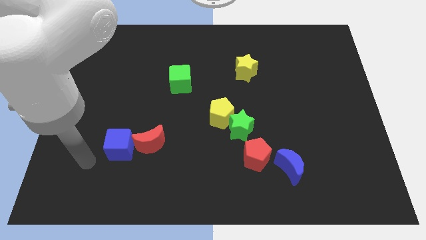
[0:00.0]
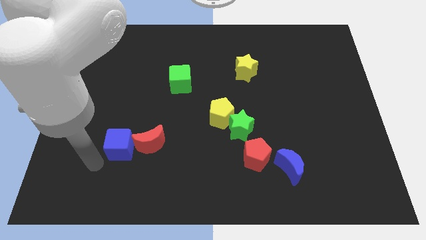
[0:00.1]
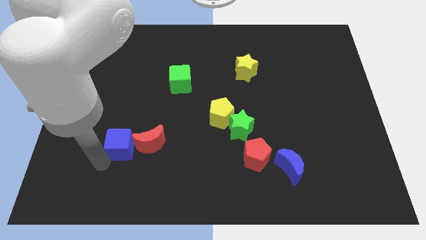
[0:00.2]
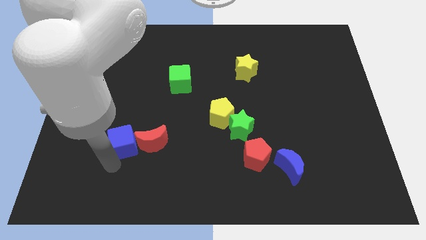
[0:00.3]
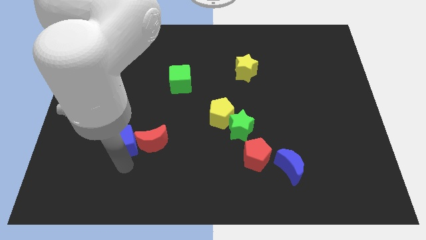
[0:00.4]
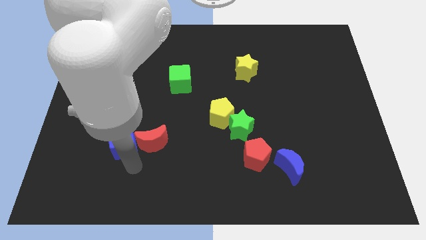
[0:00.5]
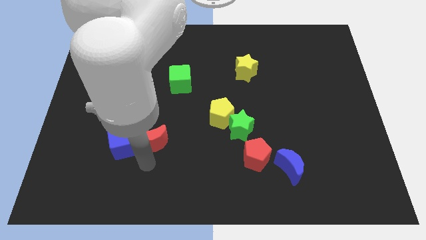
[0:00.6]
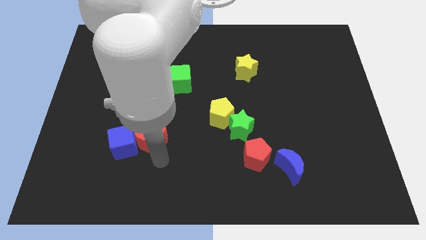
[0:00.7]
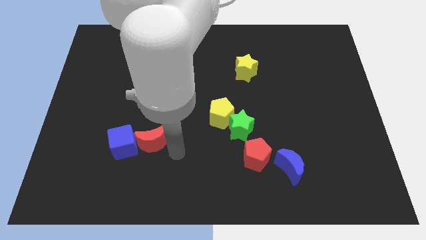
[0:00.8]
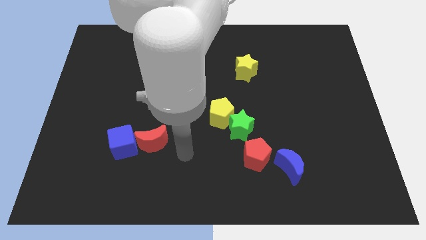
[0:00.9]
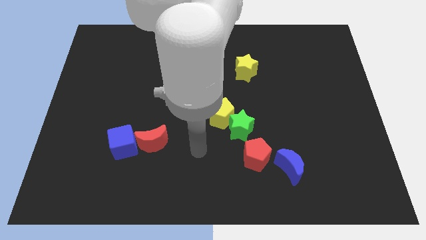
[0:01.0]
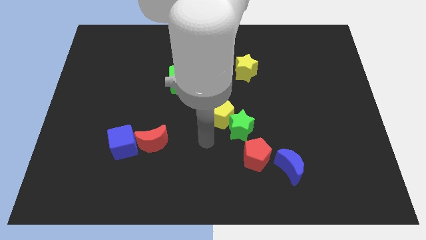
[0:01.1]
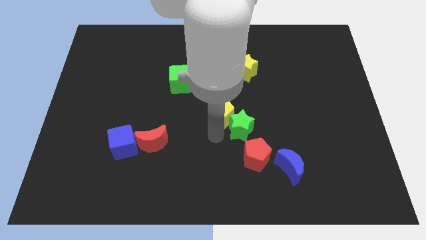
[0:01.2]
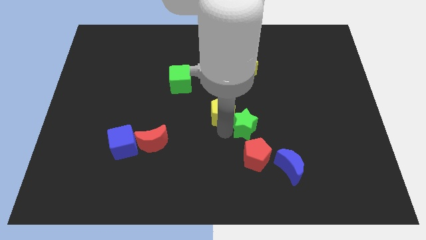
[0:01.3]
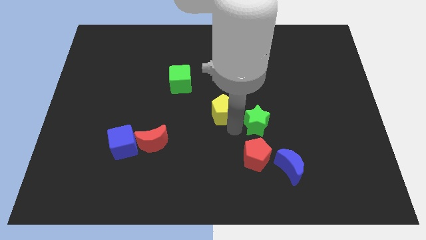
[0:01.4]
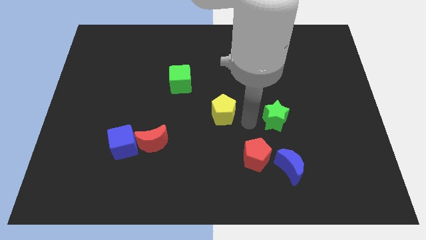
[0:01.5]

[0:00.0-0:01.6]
separate the yellow pentagon from the green star

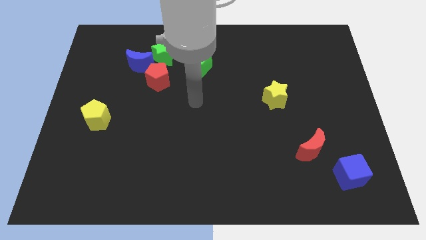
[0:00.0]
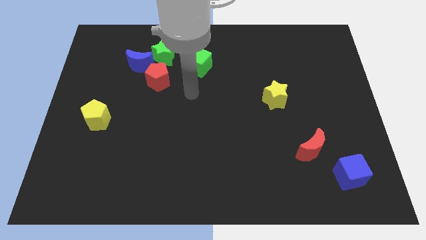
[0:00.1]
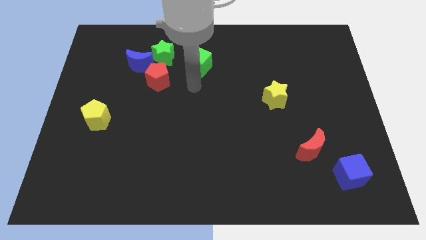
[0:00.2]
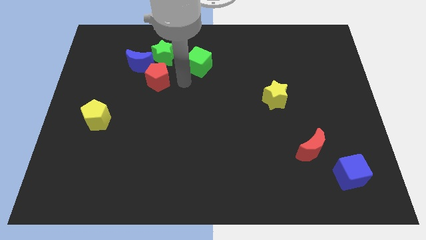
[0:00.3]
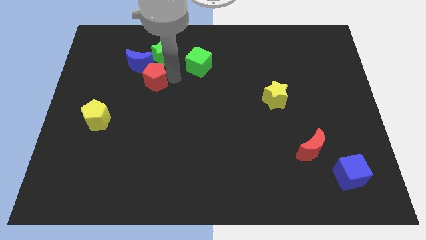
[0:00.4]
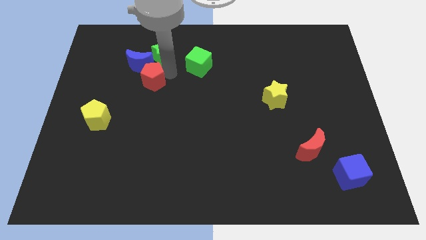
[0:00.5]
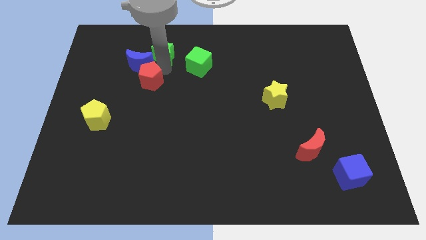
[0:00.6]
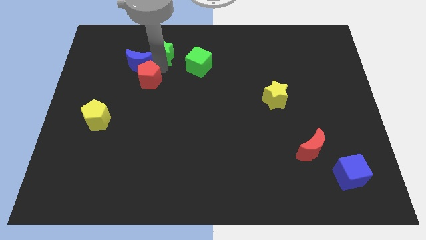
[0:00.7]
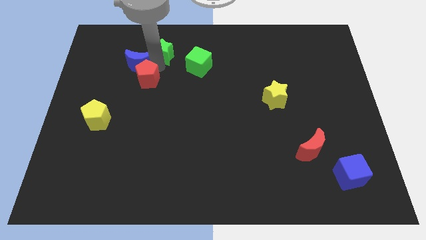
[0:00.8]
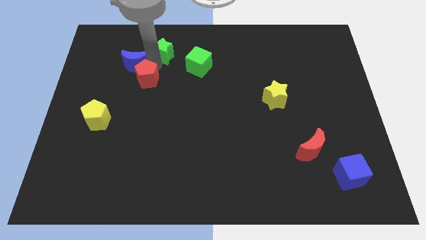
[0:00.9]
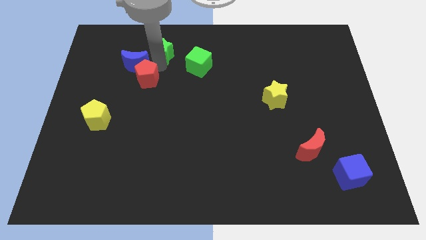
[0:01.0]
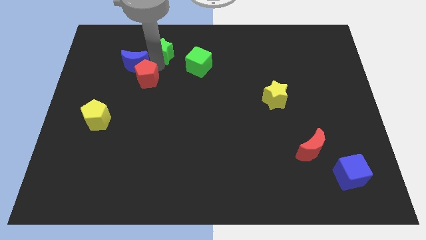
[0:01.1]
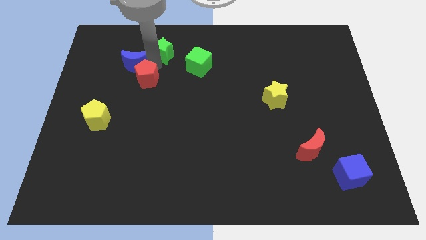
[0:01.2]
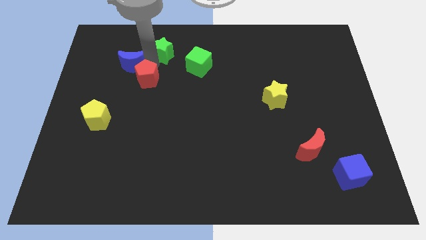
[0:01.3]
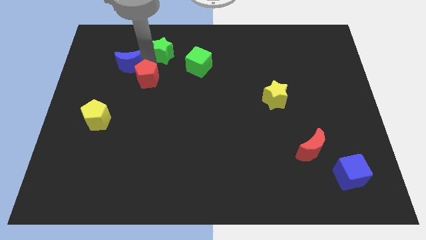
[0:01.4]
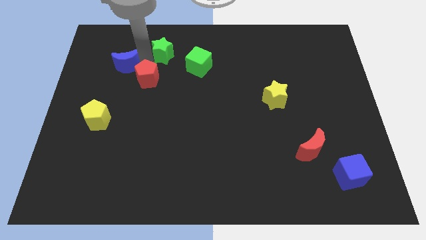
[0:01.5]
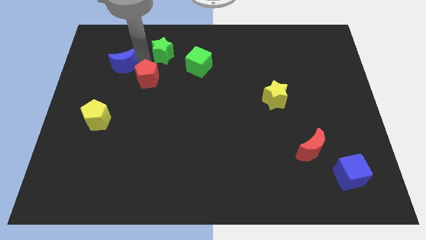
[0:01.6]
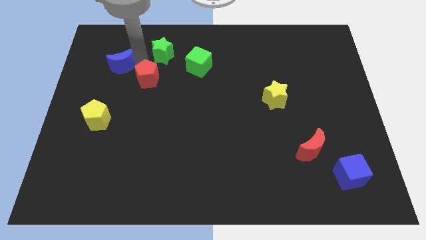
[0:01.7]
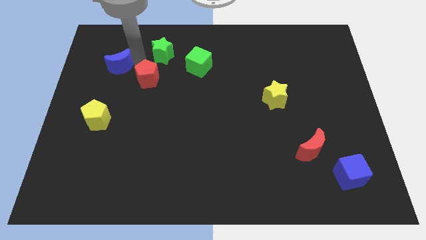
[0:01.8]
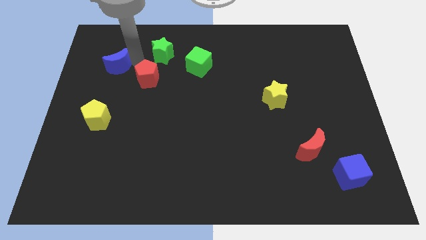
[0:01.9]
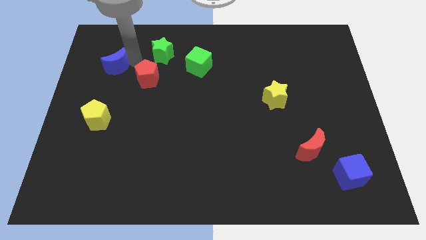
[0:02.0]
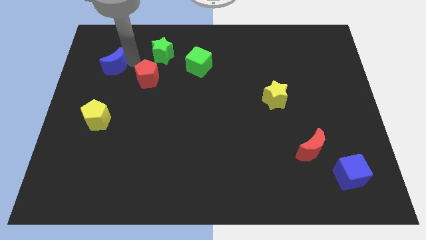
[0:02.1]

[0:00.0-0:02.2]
pull the blue moon apart from the green star and red pentagon

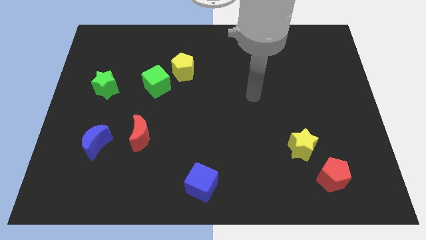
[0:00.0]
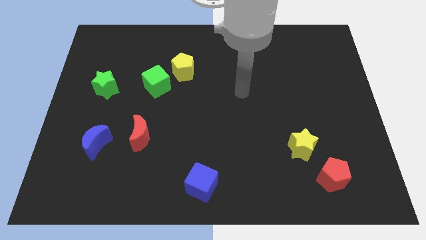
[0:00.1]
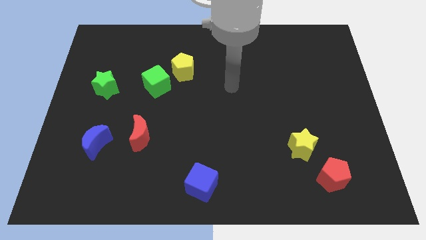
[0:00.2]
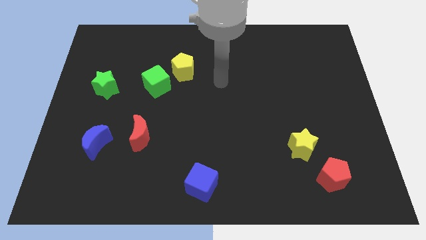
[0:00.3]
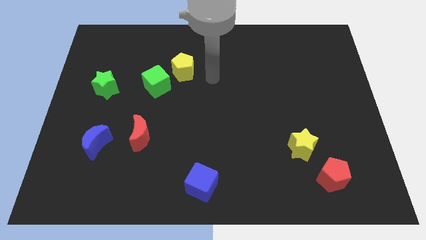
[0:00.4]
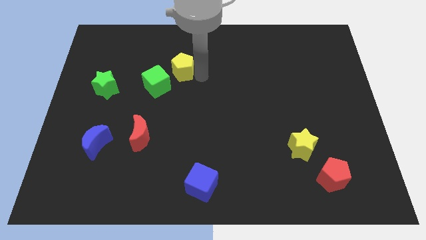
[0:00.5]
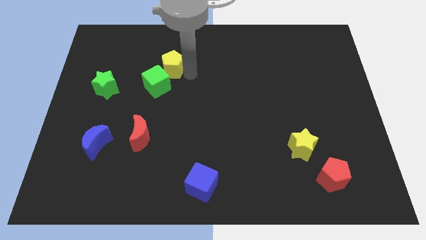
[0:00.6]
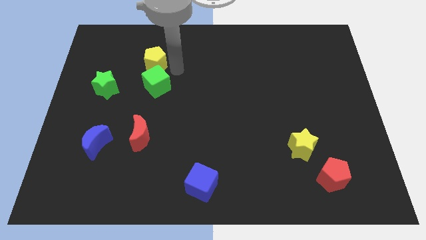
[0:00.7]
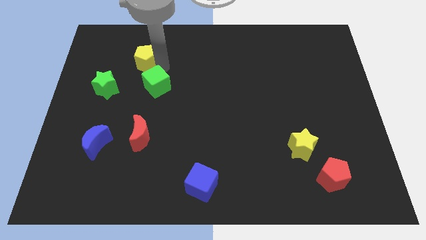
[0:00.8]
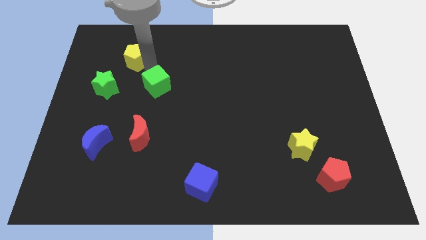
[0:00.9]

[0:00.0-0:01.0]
pull the green cube apart from the yellow pentagon

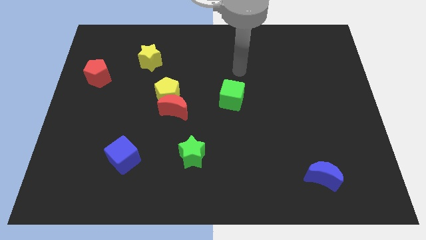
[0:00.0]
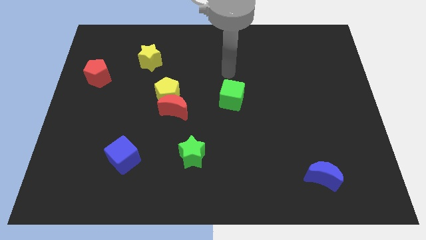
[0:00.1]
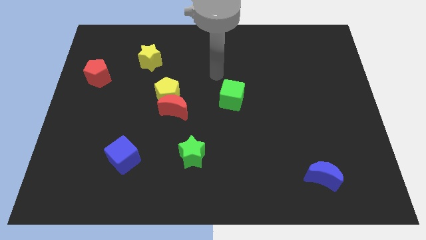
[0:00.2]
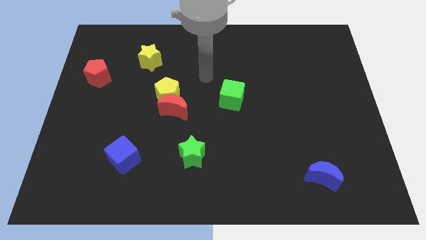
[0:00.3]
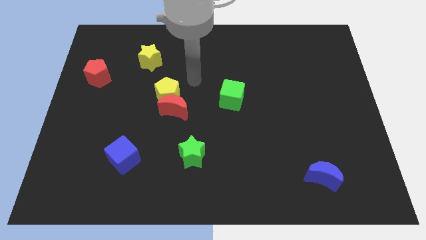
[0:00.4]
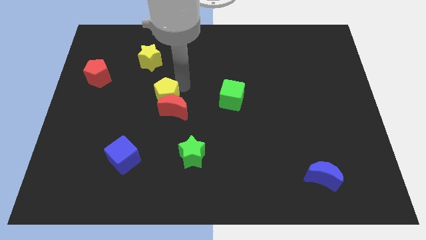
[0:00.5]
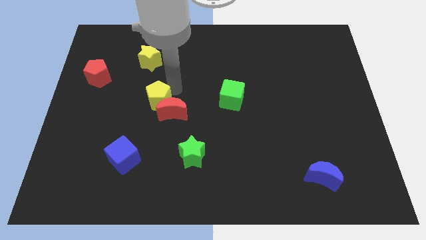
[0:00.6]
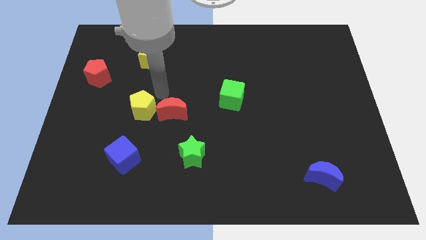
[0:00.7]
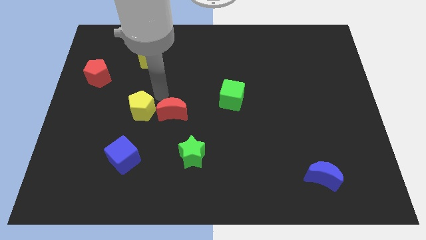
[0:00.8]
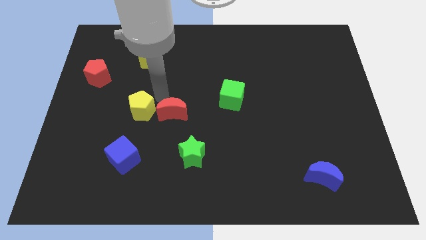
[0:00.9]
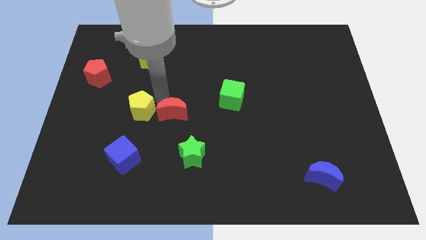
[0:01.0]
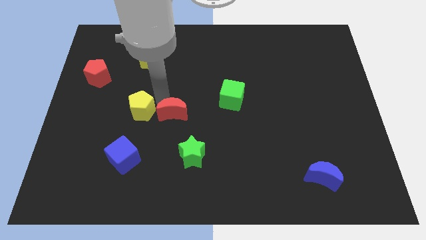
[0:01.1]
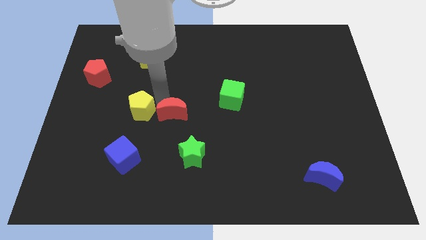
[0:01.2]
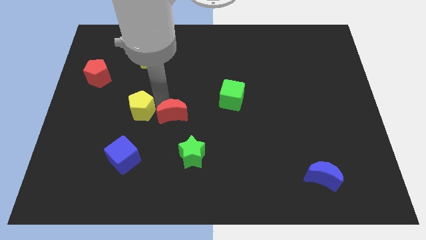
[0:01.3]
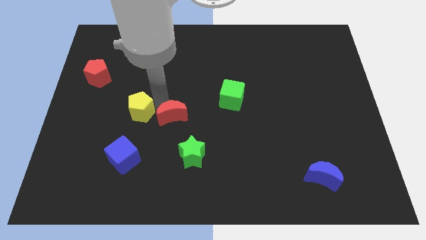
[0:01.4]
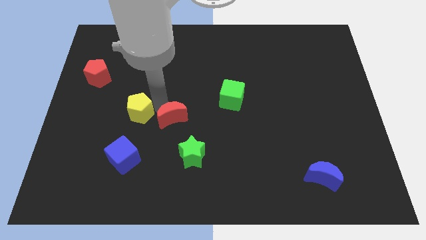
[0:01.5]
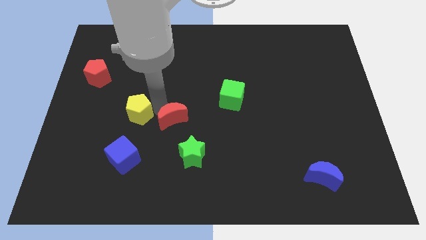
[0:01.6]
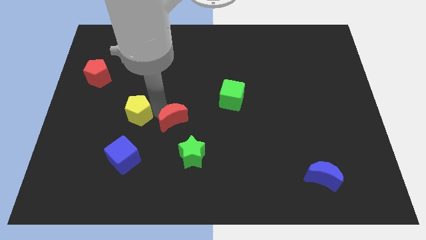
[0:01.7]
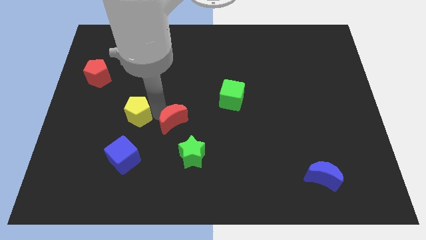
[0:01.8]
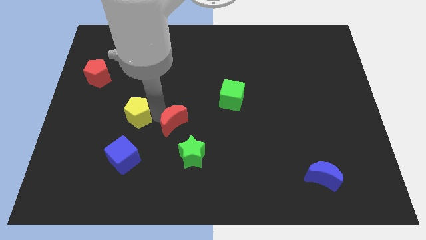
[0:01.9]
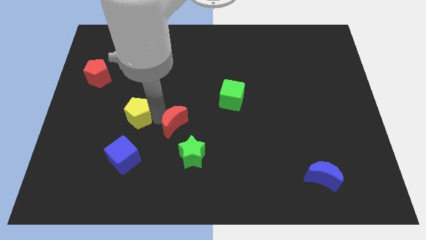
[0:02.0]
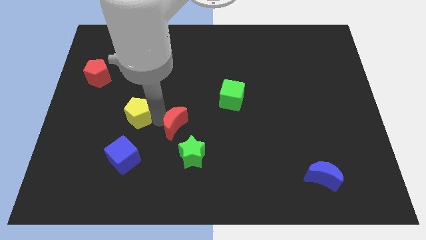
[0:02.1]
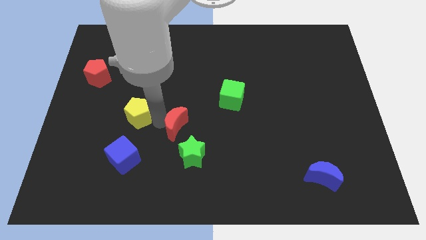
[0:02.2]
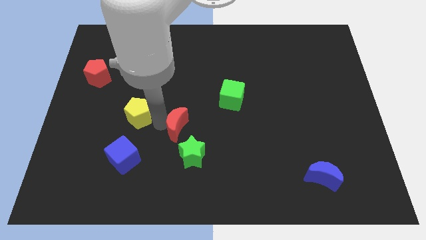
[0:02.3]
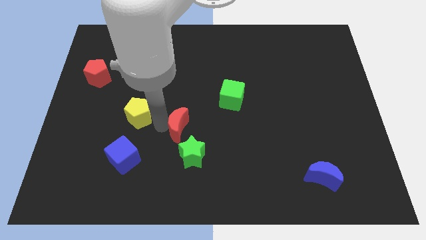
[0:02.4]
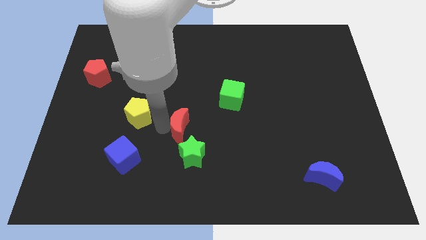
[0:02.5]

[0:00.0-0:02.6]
pull the red moon apart from the yellow pentagon

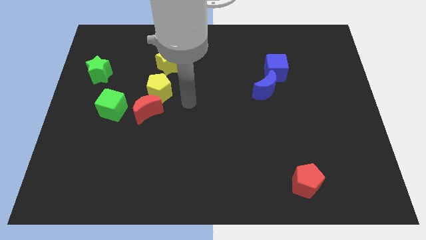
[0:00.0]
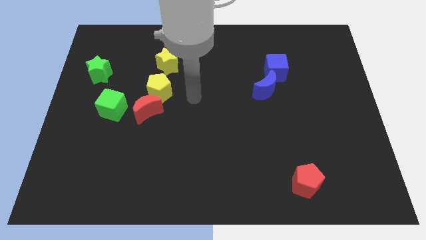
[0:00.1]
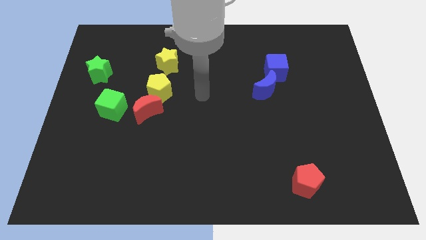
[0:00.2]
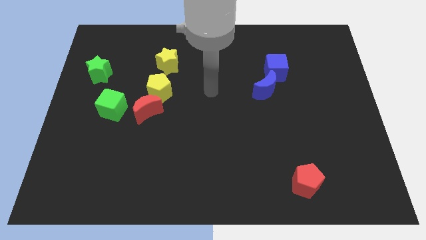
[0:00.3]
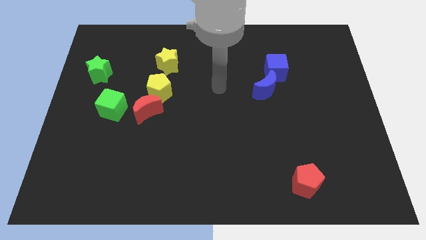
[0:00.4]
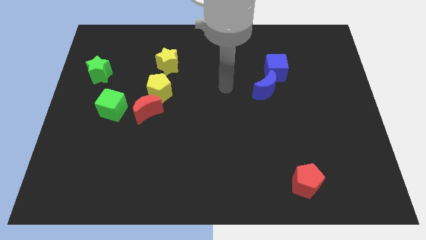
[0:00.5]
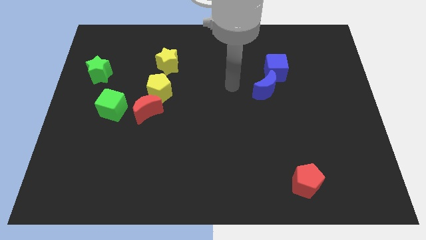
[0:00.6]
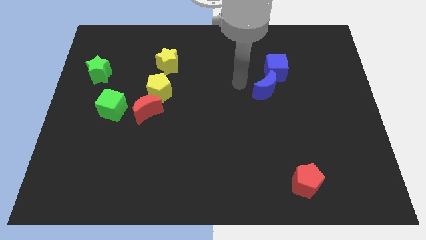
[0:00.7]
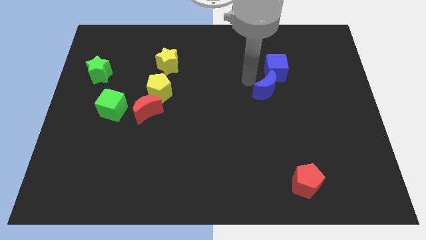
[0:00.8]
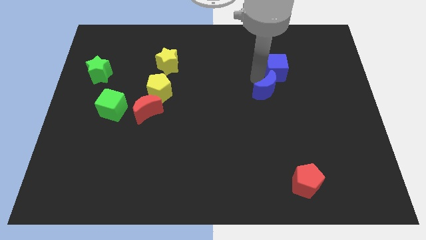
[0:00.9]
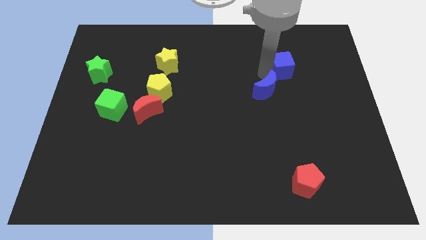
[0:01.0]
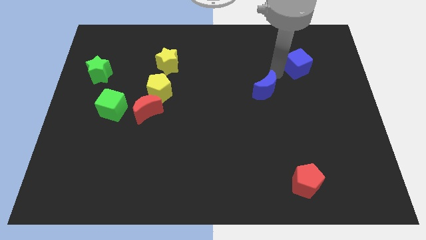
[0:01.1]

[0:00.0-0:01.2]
move the blue moon away from the blue cube

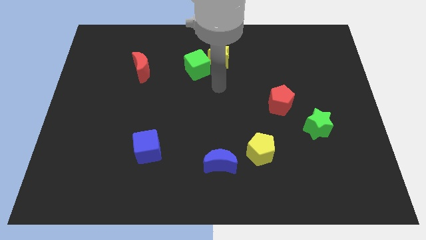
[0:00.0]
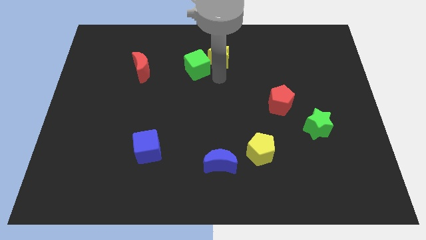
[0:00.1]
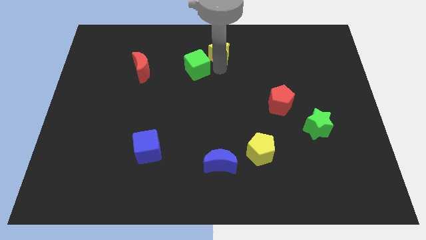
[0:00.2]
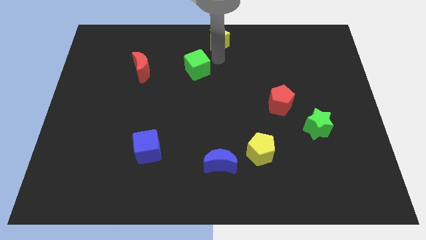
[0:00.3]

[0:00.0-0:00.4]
separate the green cube from the yellow star

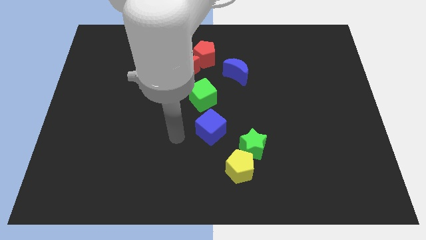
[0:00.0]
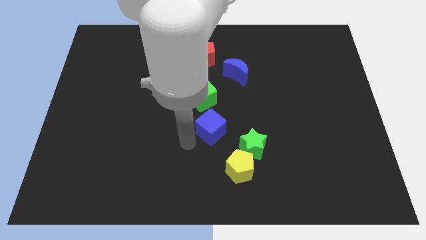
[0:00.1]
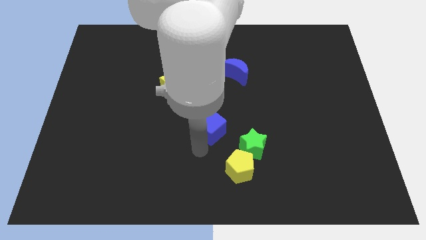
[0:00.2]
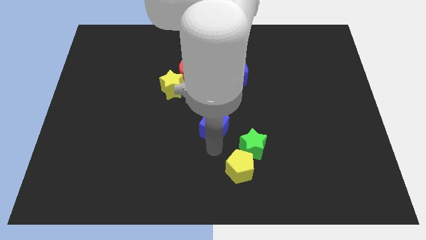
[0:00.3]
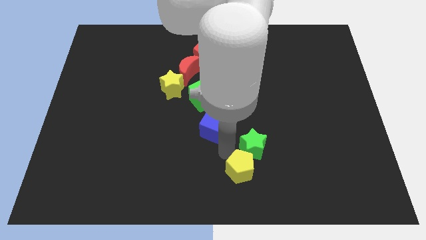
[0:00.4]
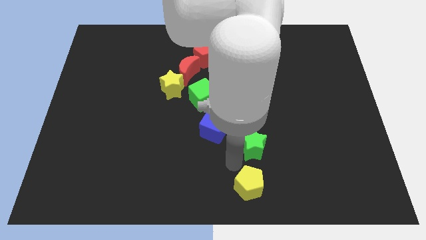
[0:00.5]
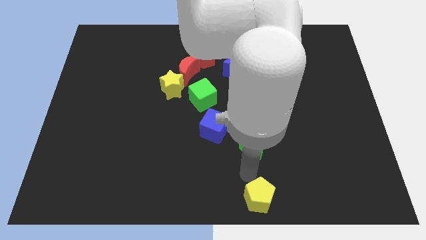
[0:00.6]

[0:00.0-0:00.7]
pull the green star apart from the yellow pentagon
